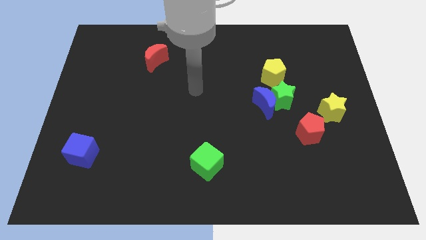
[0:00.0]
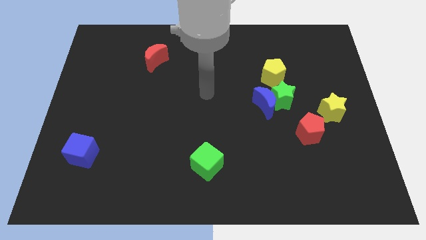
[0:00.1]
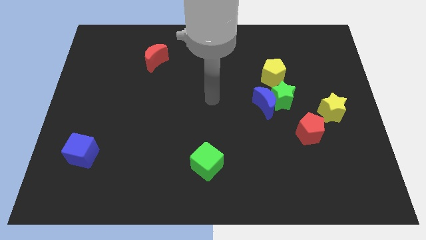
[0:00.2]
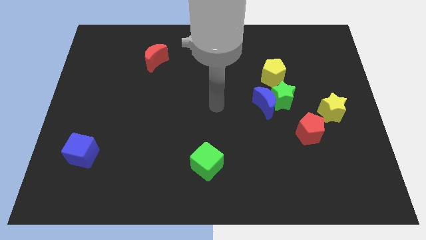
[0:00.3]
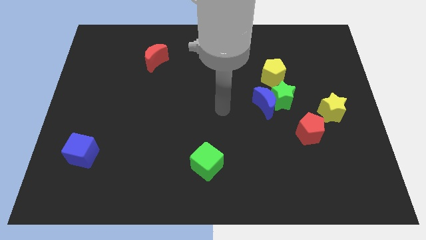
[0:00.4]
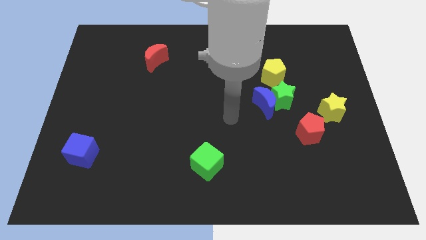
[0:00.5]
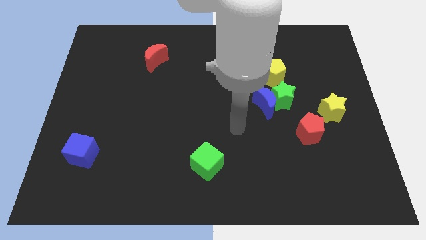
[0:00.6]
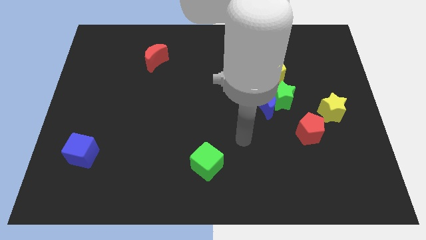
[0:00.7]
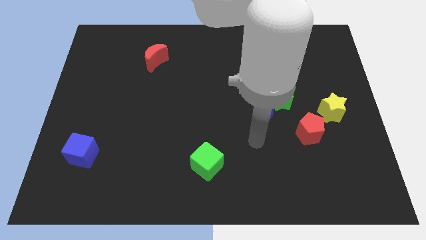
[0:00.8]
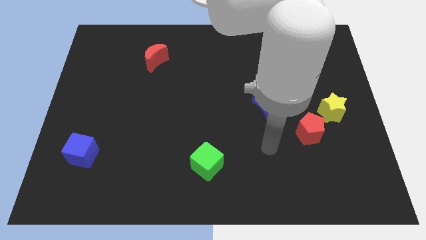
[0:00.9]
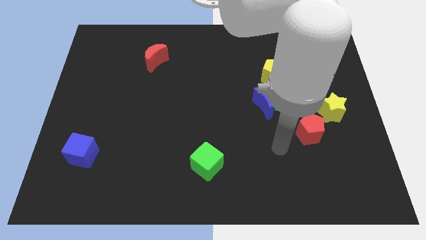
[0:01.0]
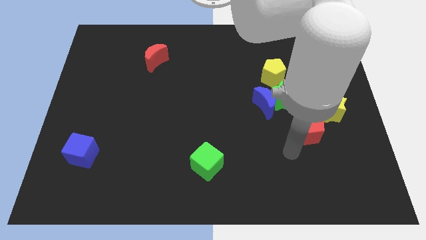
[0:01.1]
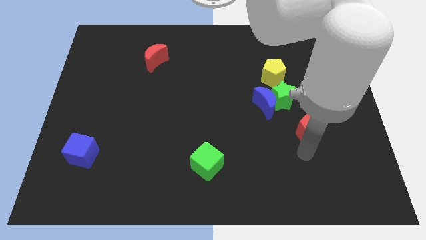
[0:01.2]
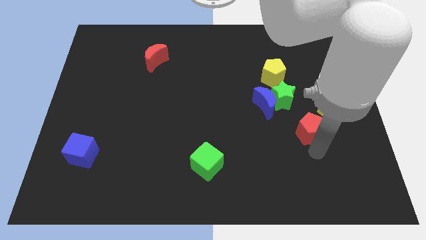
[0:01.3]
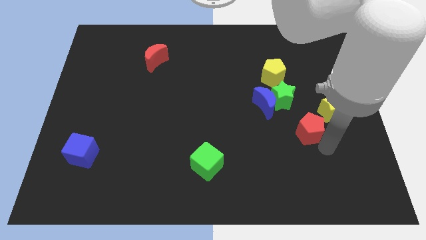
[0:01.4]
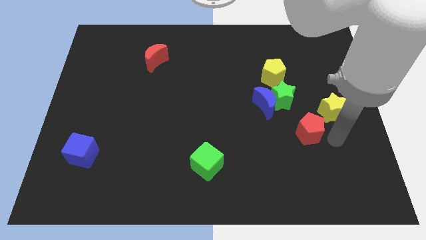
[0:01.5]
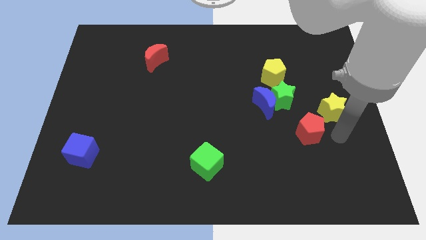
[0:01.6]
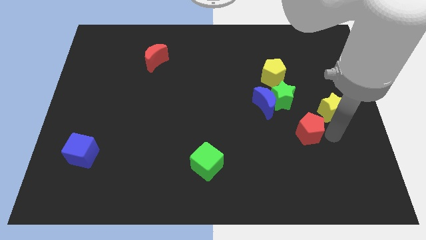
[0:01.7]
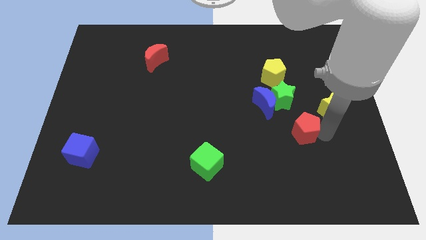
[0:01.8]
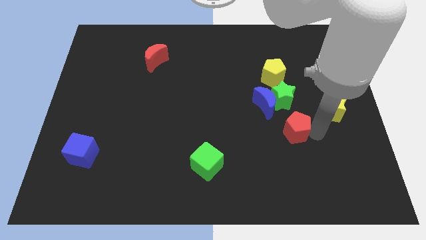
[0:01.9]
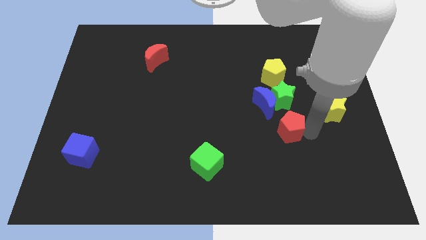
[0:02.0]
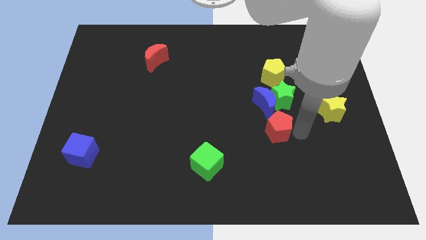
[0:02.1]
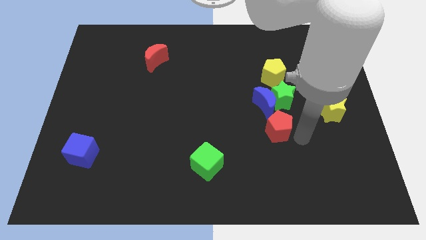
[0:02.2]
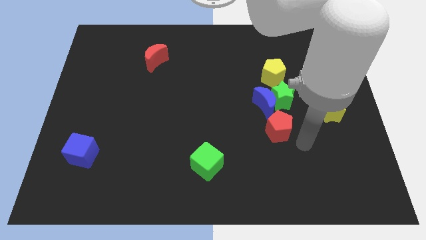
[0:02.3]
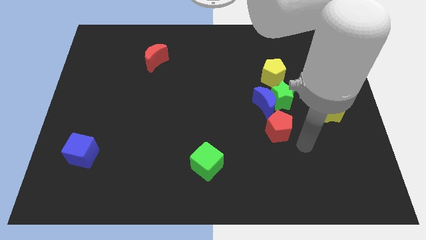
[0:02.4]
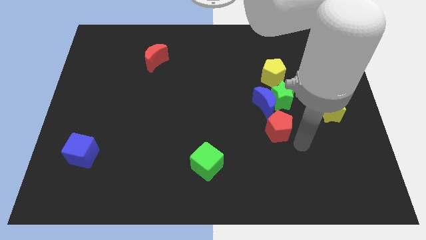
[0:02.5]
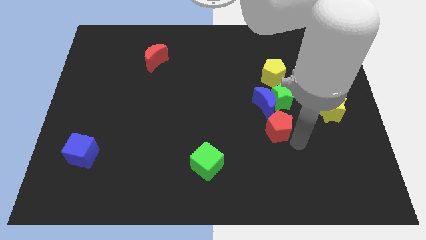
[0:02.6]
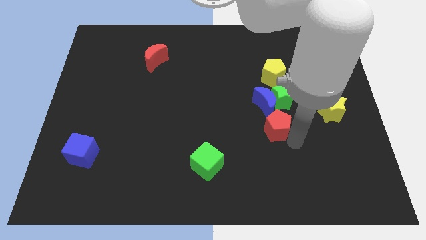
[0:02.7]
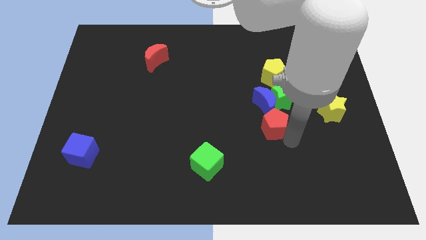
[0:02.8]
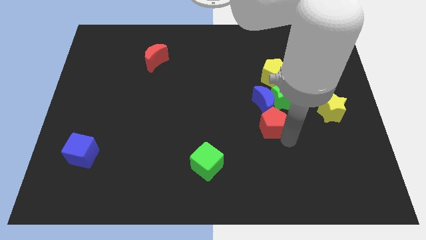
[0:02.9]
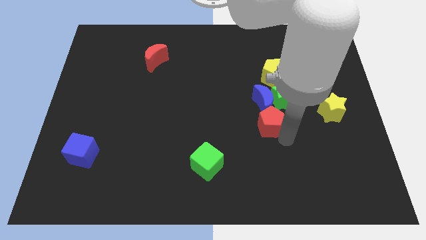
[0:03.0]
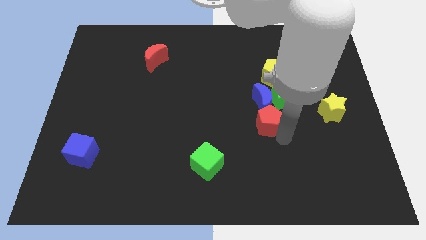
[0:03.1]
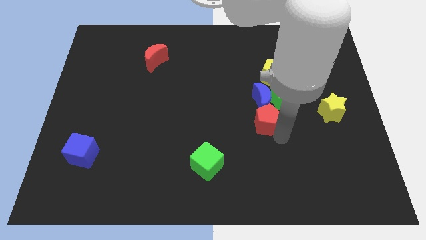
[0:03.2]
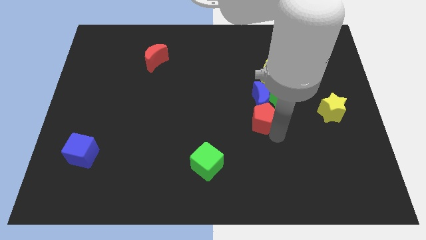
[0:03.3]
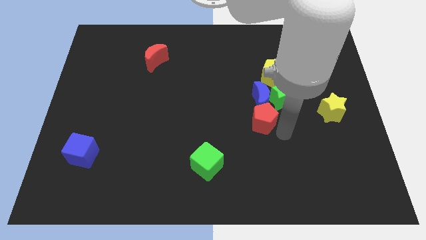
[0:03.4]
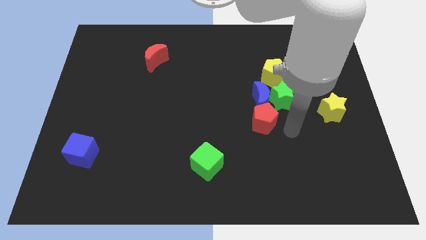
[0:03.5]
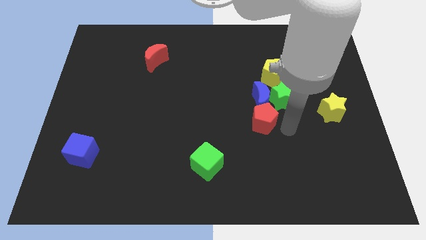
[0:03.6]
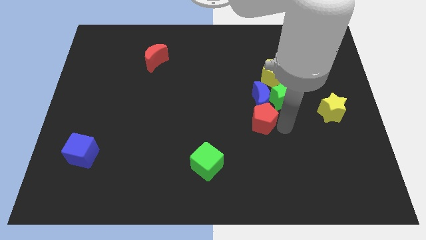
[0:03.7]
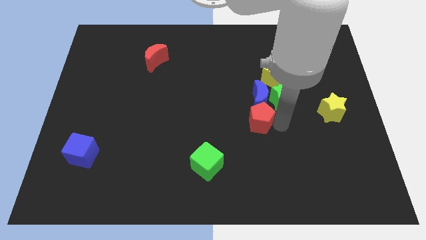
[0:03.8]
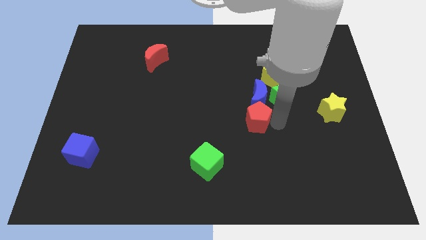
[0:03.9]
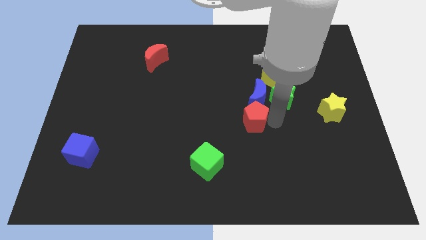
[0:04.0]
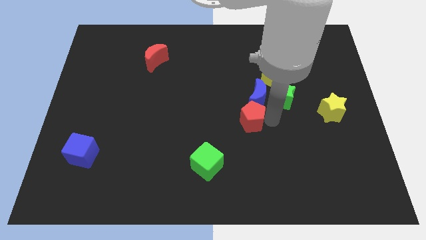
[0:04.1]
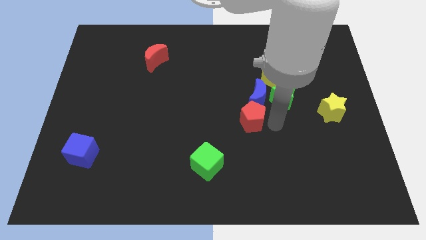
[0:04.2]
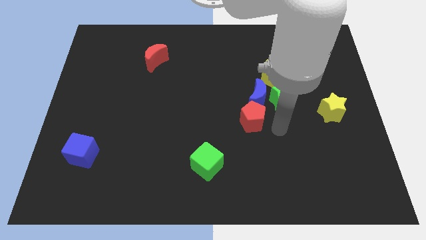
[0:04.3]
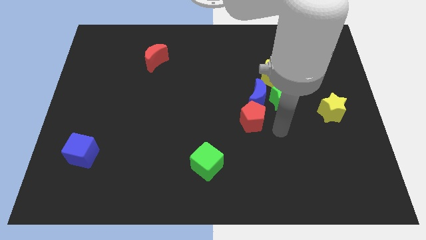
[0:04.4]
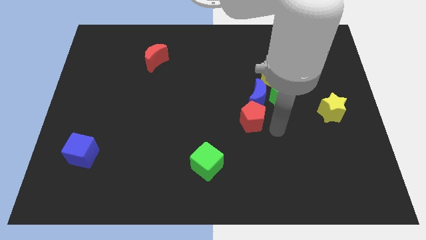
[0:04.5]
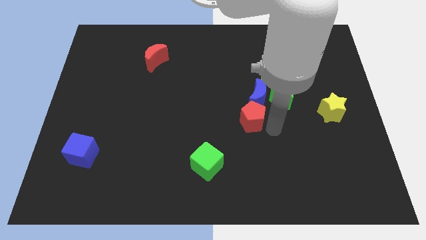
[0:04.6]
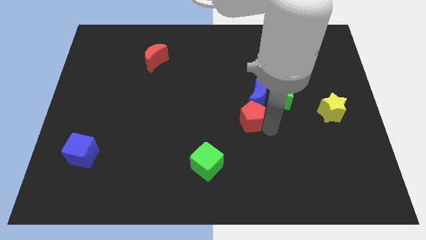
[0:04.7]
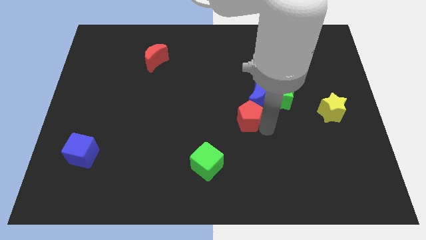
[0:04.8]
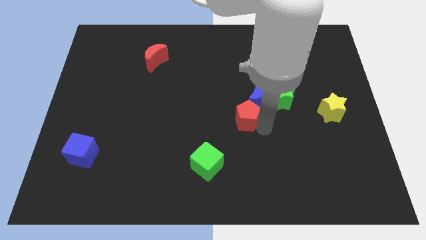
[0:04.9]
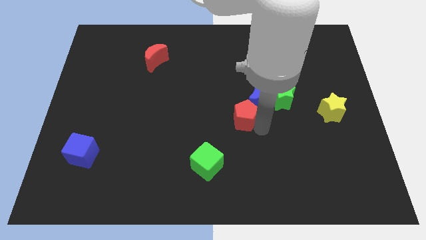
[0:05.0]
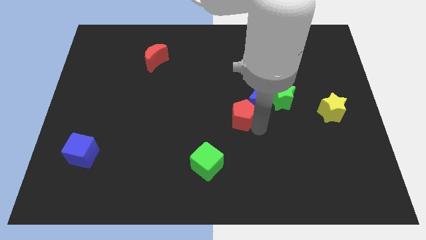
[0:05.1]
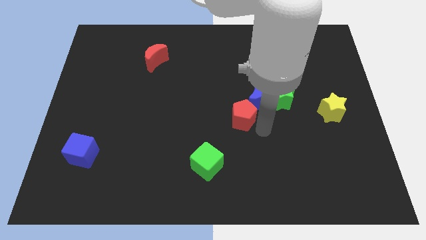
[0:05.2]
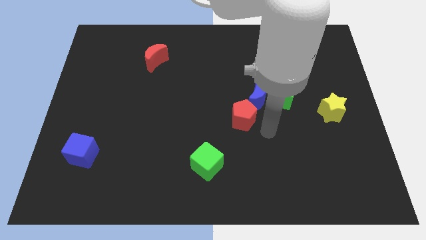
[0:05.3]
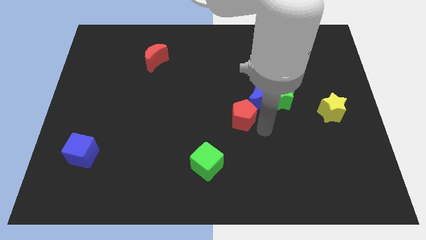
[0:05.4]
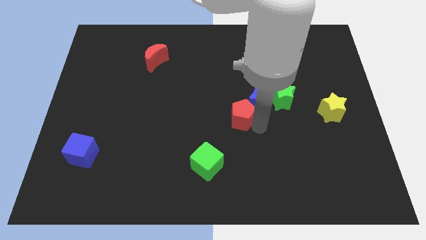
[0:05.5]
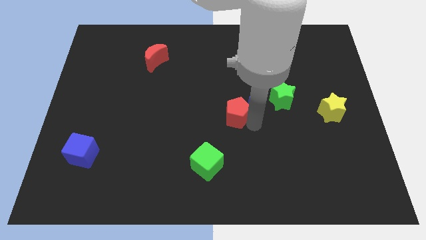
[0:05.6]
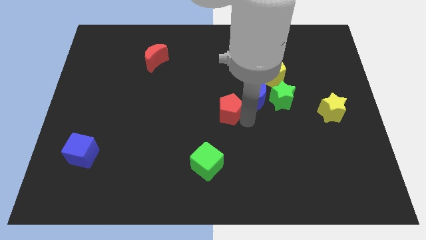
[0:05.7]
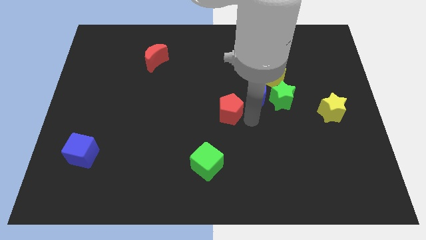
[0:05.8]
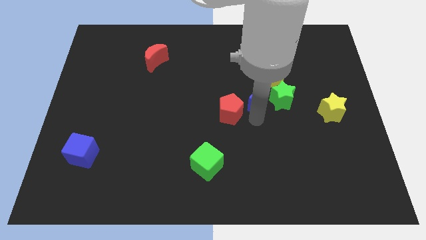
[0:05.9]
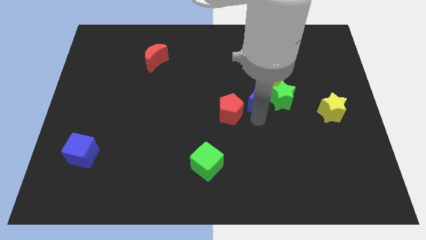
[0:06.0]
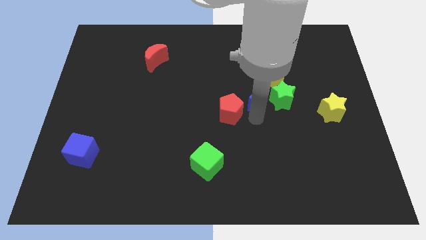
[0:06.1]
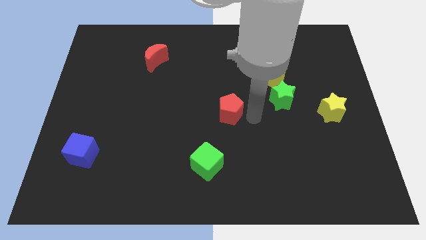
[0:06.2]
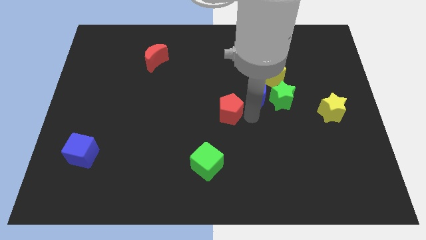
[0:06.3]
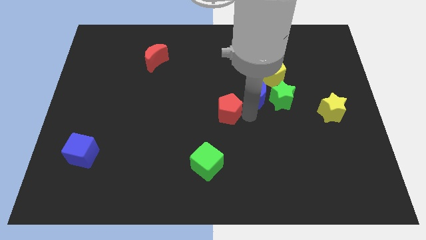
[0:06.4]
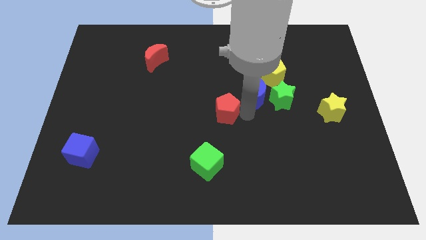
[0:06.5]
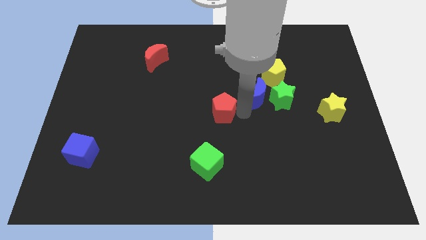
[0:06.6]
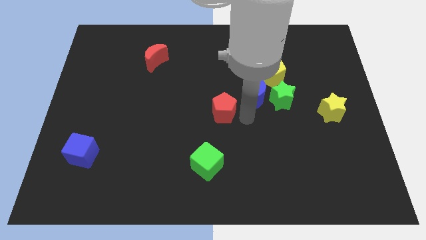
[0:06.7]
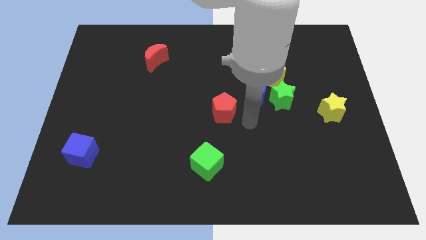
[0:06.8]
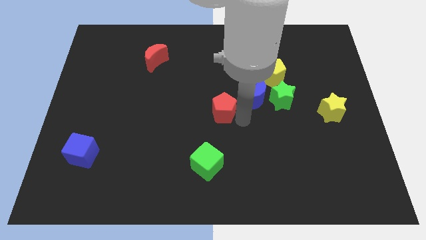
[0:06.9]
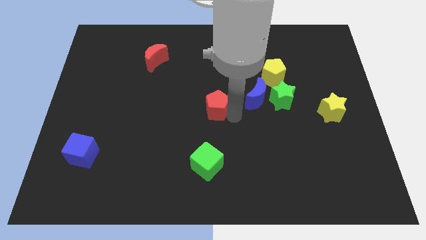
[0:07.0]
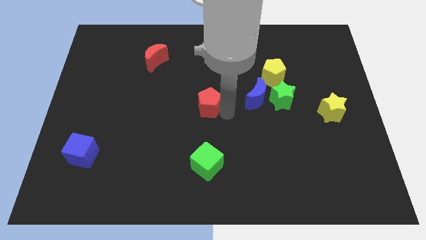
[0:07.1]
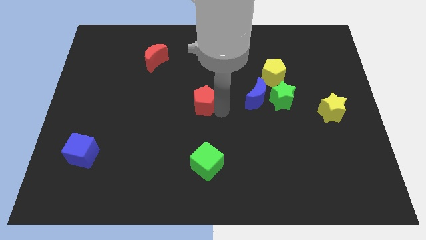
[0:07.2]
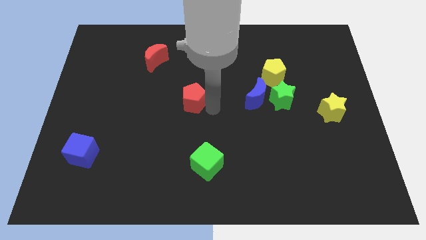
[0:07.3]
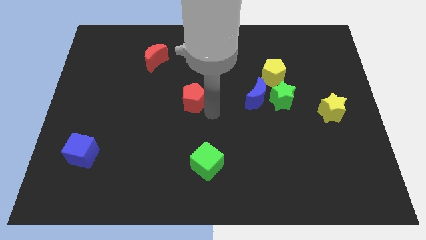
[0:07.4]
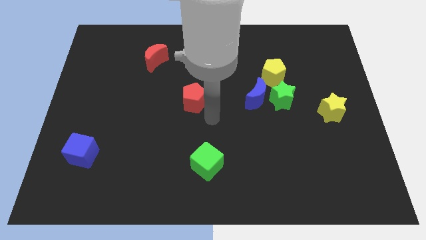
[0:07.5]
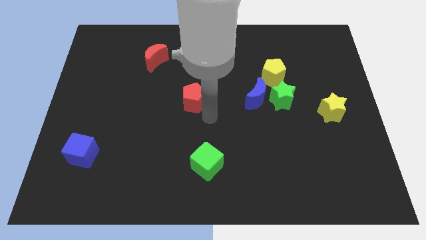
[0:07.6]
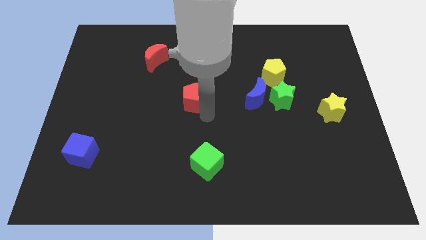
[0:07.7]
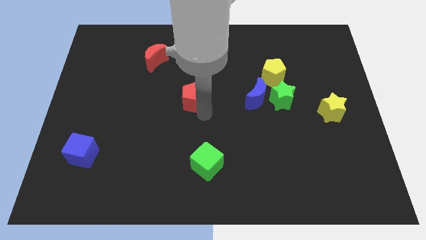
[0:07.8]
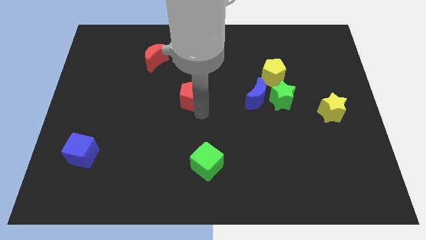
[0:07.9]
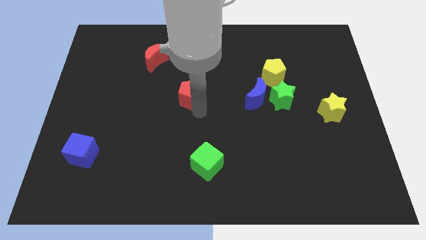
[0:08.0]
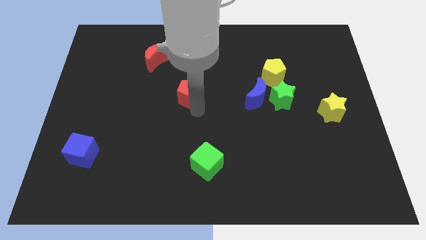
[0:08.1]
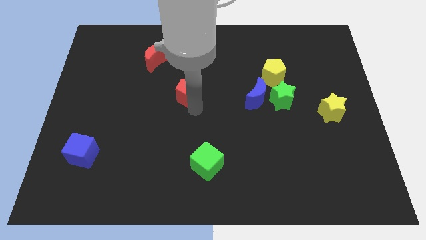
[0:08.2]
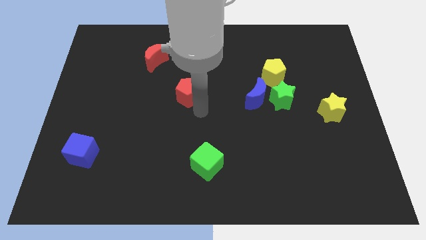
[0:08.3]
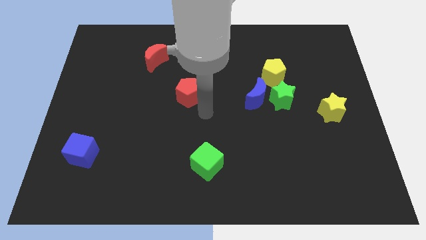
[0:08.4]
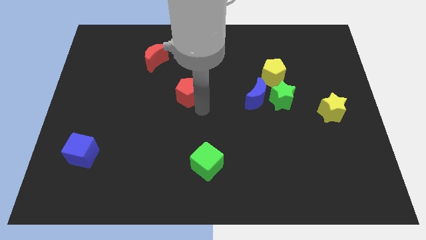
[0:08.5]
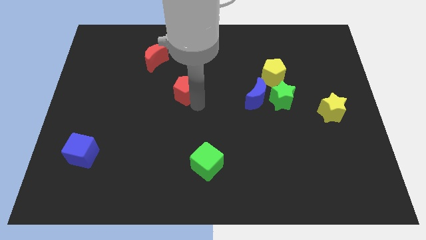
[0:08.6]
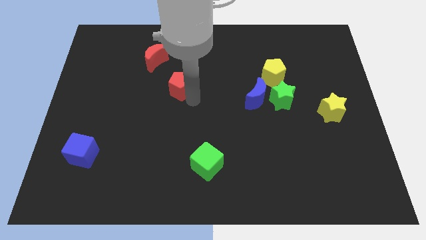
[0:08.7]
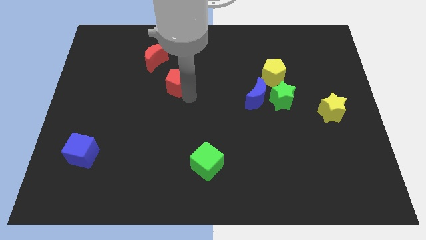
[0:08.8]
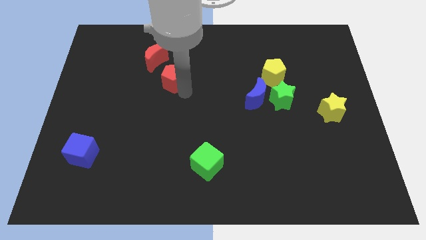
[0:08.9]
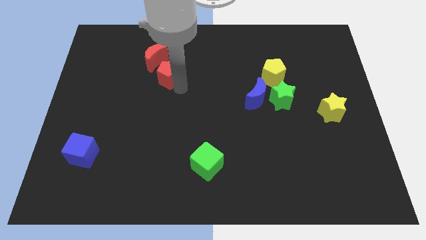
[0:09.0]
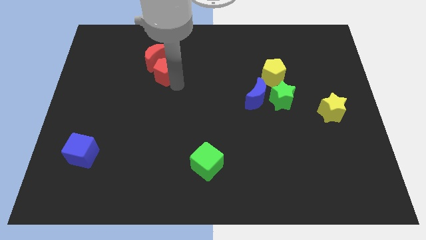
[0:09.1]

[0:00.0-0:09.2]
slide the red pentagon towards the red moon
